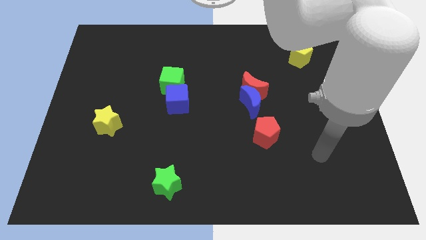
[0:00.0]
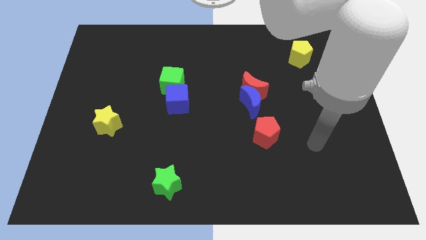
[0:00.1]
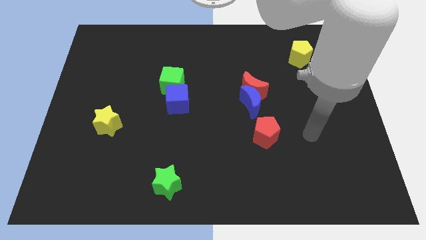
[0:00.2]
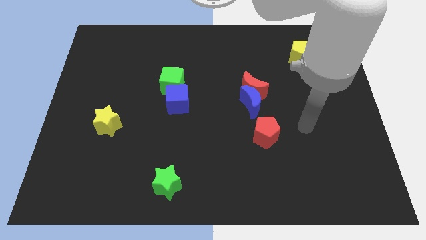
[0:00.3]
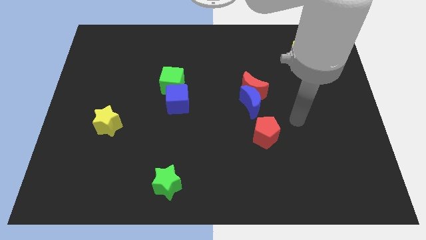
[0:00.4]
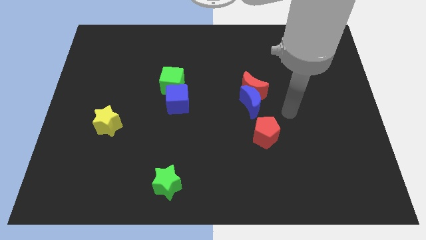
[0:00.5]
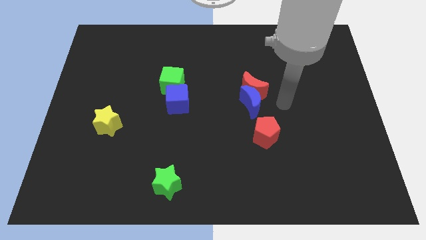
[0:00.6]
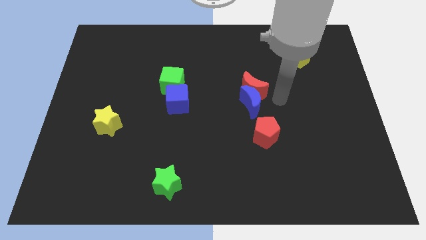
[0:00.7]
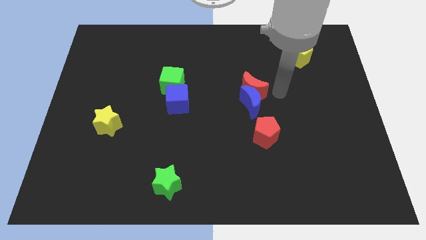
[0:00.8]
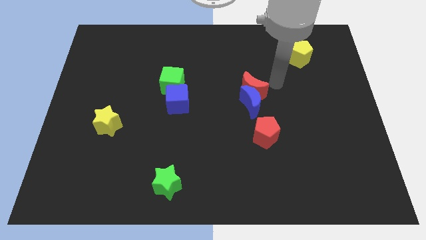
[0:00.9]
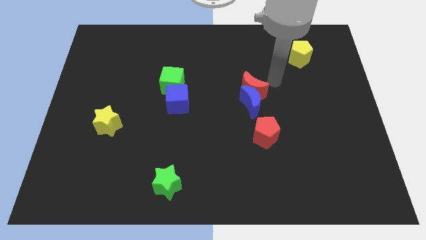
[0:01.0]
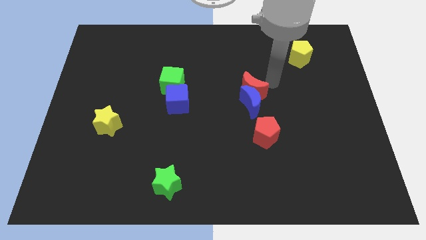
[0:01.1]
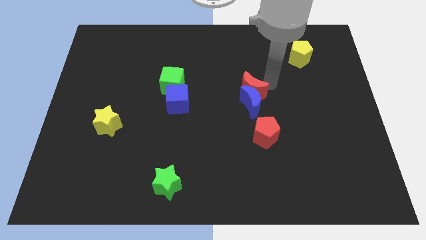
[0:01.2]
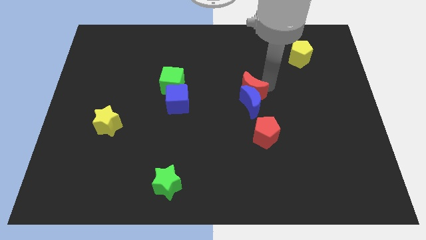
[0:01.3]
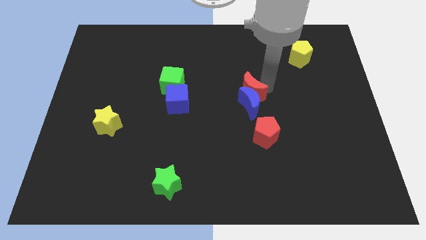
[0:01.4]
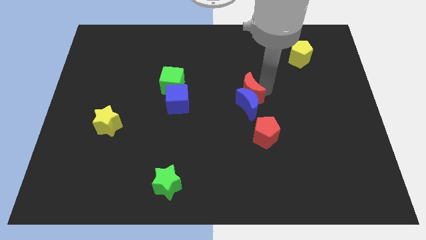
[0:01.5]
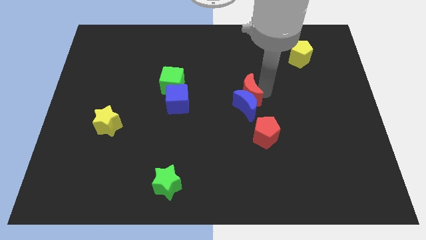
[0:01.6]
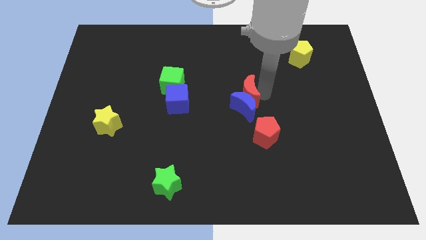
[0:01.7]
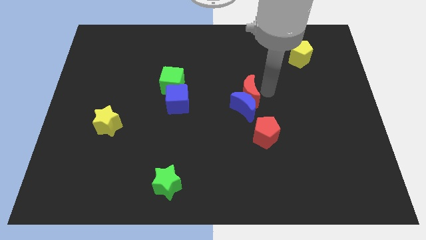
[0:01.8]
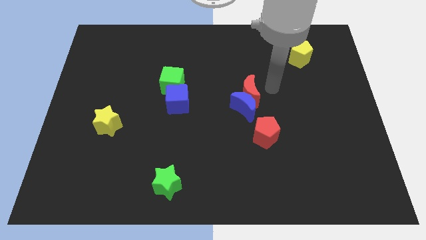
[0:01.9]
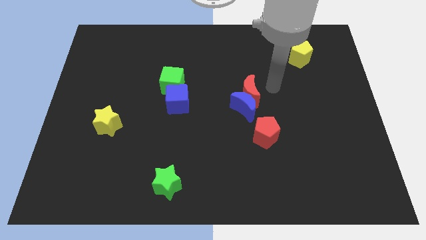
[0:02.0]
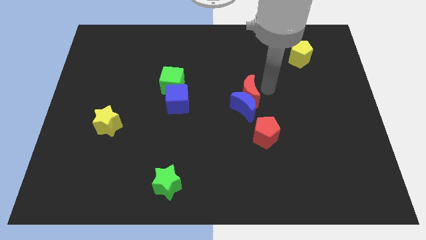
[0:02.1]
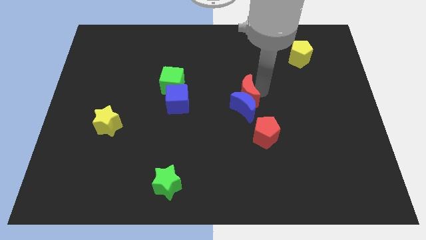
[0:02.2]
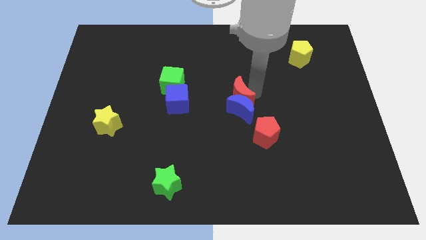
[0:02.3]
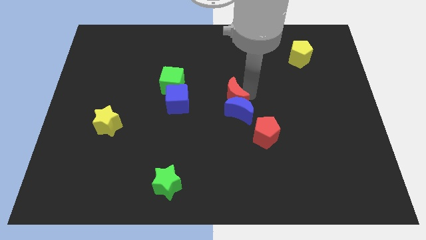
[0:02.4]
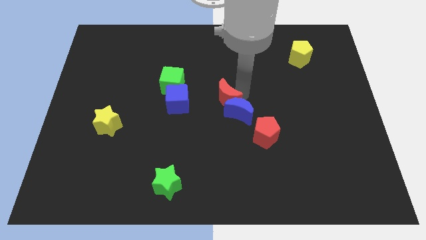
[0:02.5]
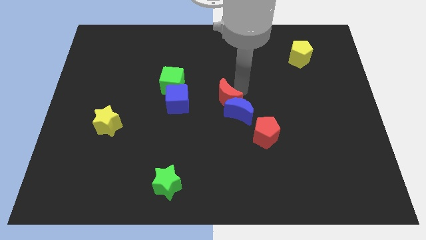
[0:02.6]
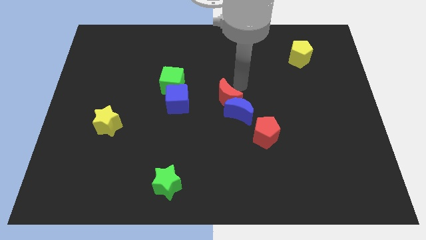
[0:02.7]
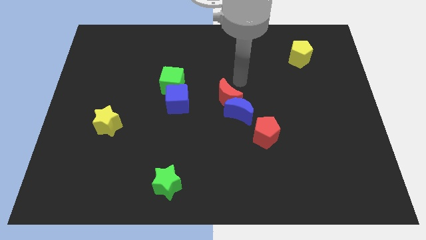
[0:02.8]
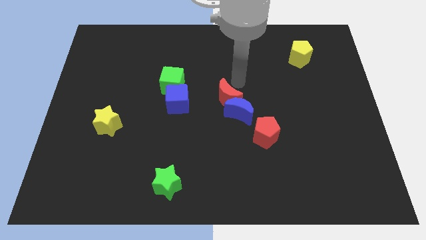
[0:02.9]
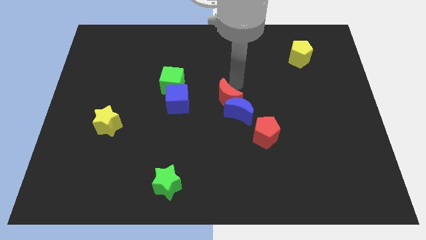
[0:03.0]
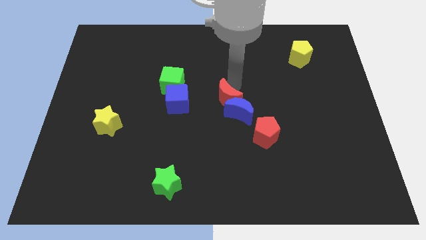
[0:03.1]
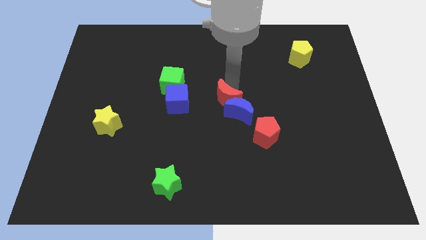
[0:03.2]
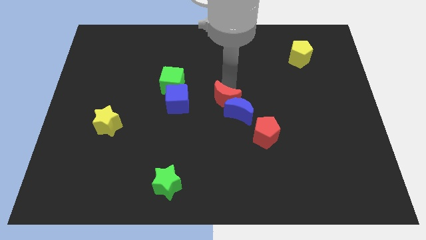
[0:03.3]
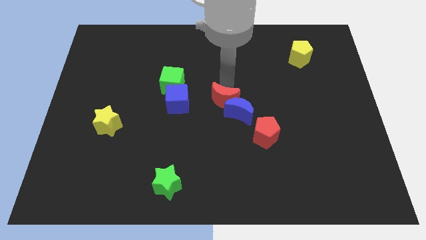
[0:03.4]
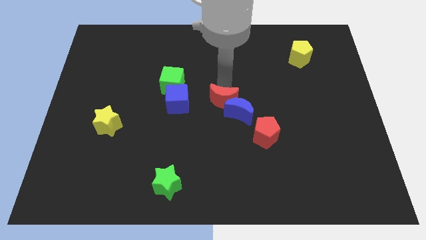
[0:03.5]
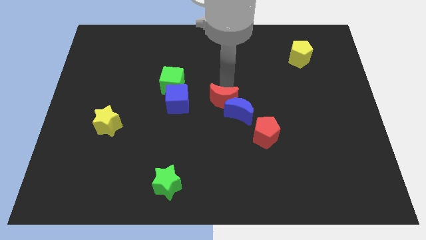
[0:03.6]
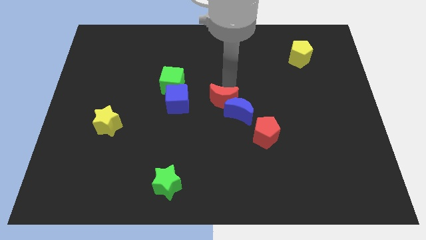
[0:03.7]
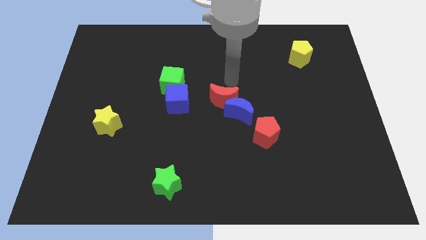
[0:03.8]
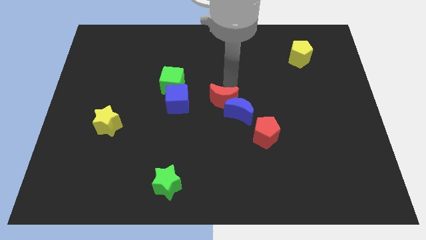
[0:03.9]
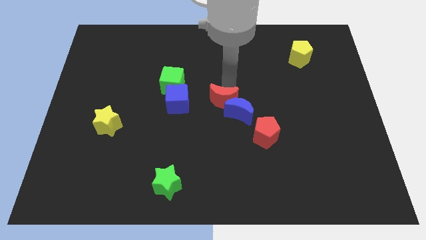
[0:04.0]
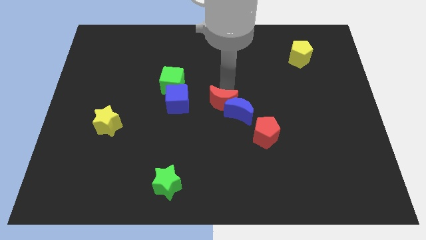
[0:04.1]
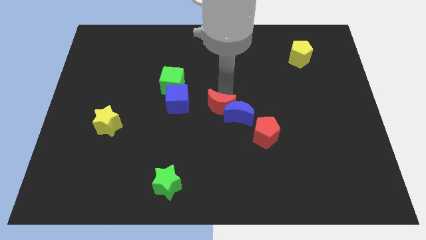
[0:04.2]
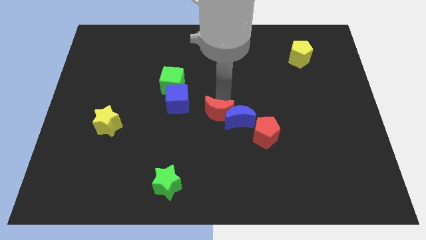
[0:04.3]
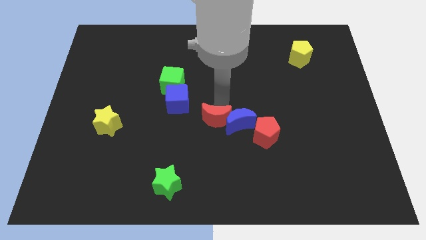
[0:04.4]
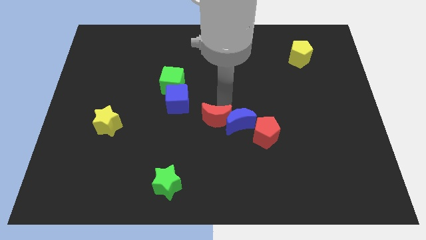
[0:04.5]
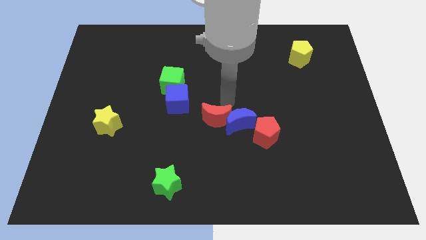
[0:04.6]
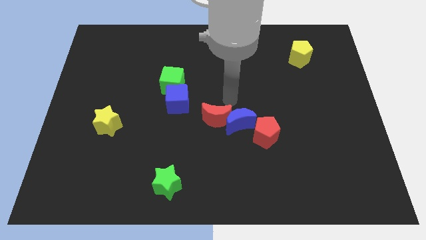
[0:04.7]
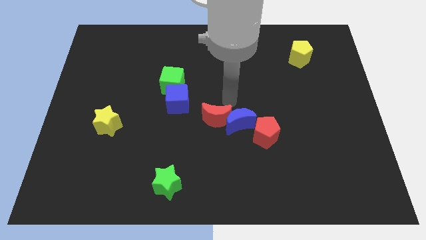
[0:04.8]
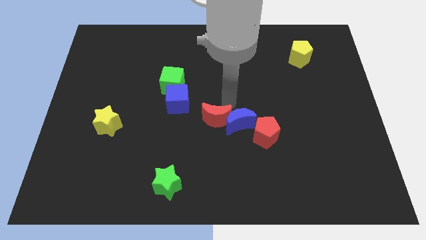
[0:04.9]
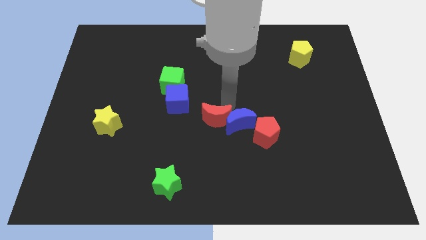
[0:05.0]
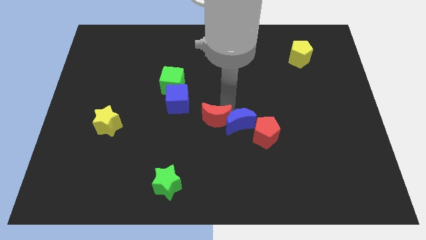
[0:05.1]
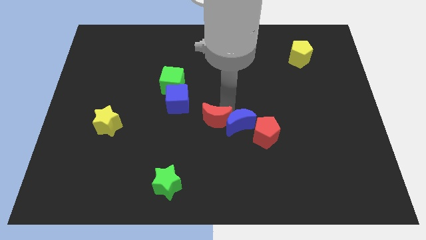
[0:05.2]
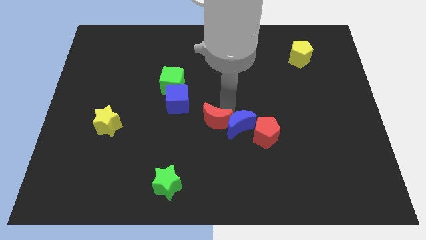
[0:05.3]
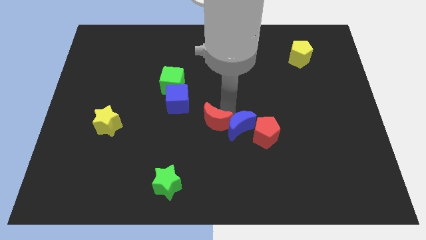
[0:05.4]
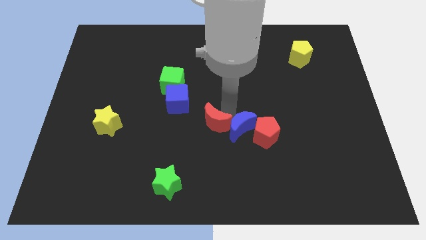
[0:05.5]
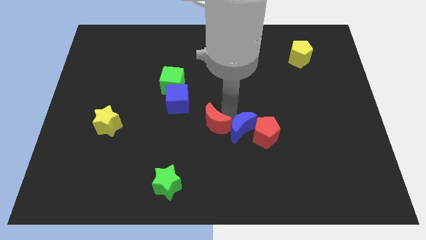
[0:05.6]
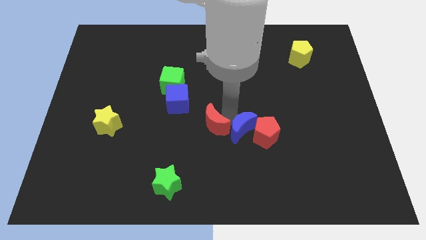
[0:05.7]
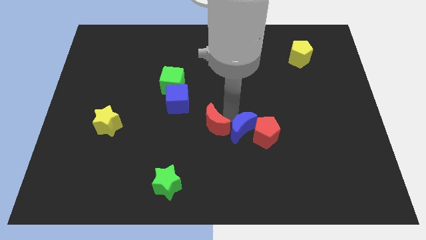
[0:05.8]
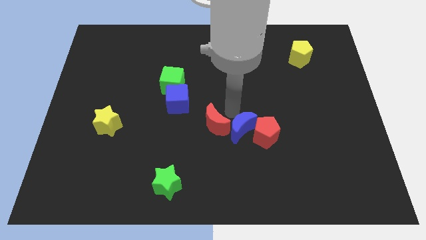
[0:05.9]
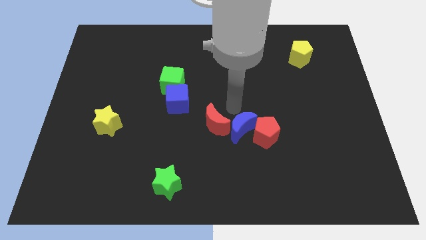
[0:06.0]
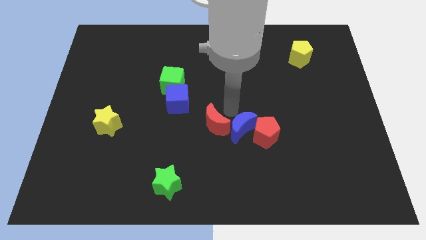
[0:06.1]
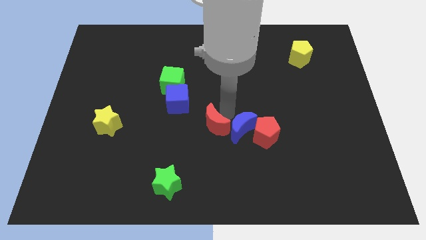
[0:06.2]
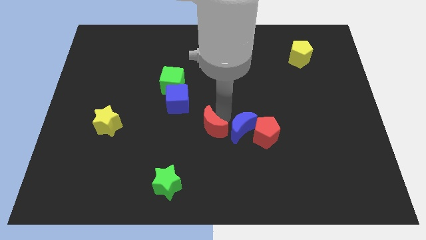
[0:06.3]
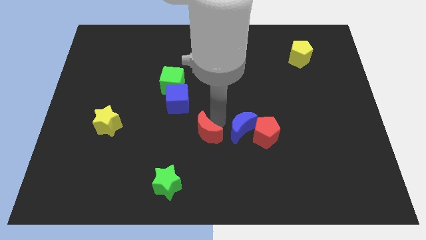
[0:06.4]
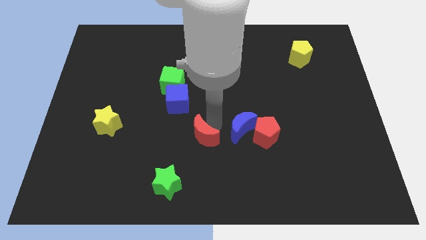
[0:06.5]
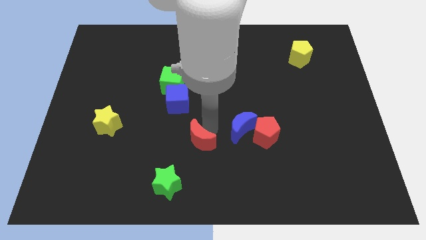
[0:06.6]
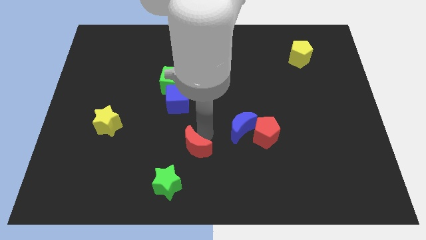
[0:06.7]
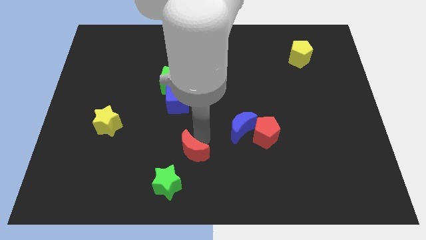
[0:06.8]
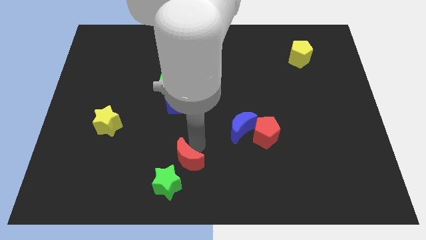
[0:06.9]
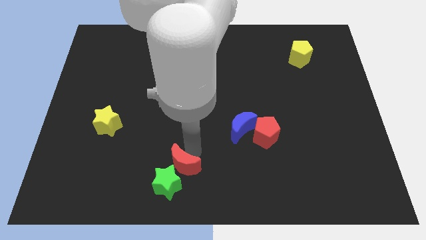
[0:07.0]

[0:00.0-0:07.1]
push the red moon next to the green star
